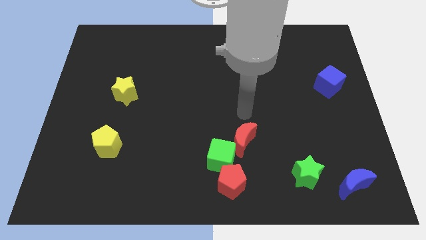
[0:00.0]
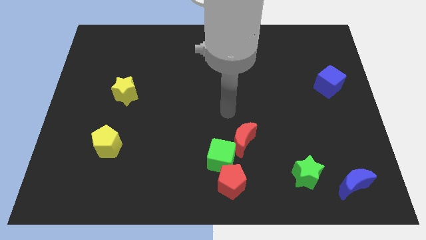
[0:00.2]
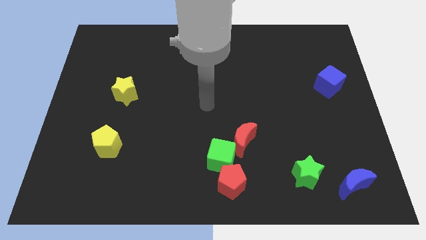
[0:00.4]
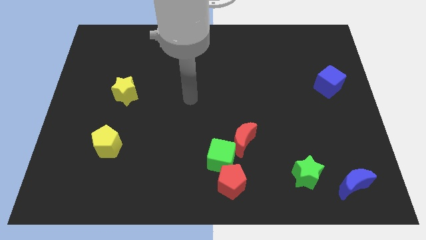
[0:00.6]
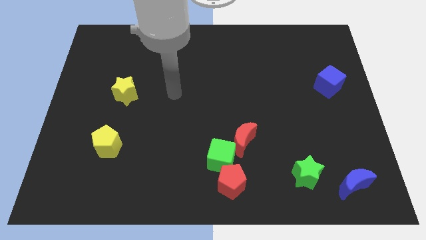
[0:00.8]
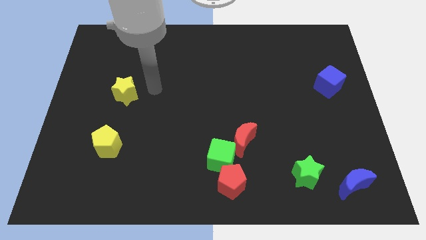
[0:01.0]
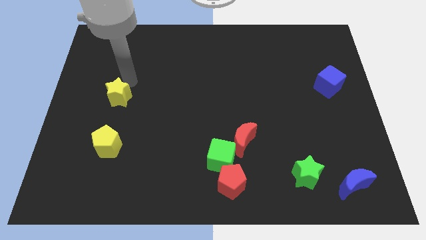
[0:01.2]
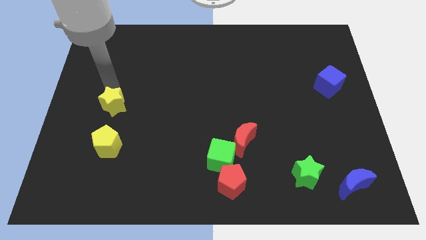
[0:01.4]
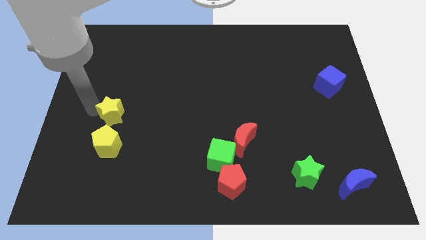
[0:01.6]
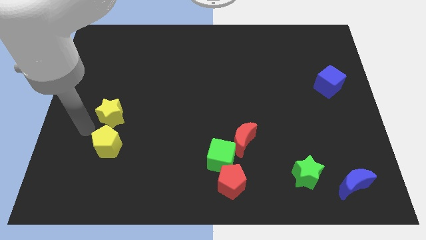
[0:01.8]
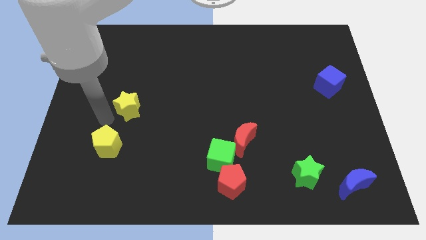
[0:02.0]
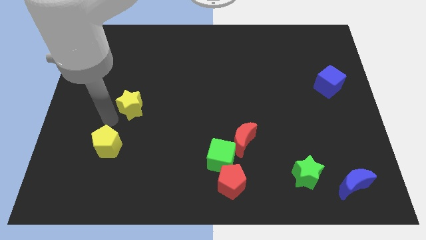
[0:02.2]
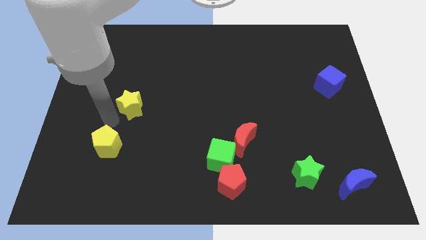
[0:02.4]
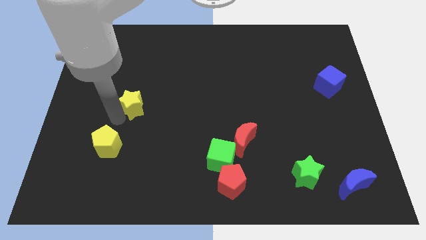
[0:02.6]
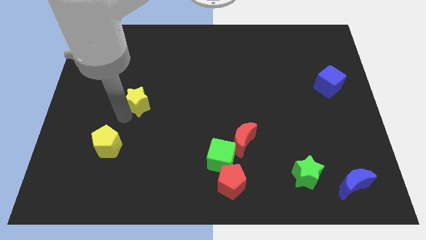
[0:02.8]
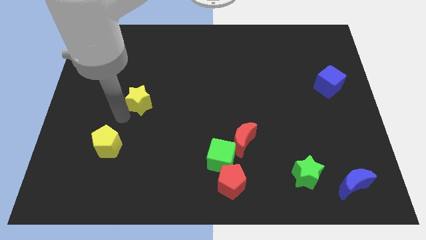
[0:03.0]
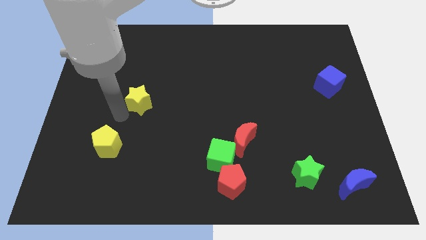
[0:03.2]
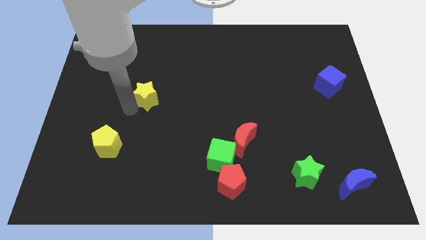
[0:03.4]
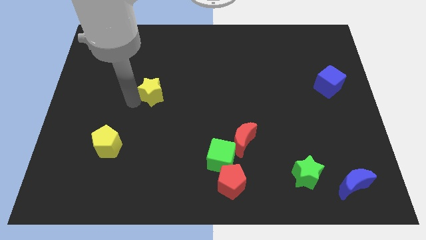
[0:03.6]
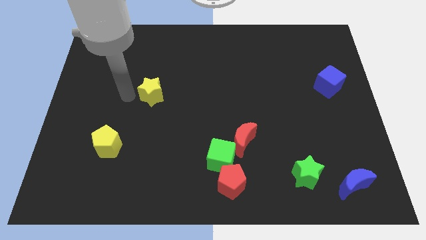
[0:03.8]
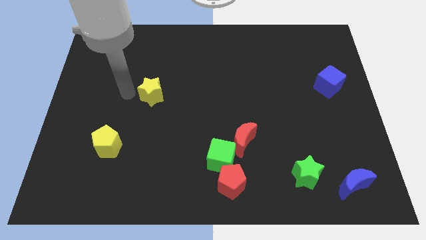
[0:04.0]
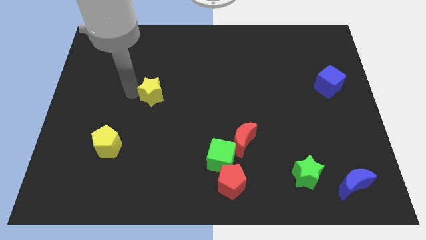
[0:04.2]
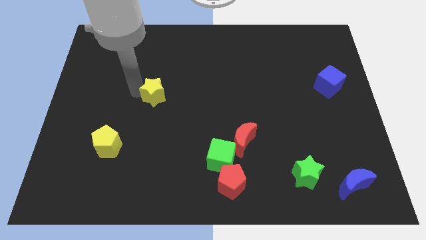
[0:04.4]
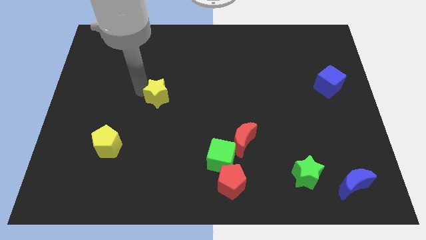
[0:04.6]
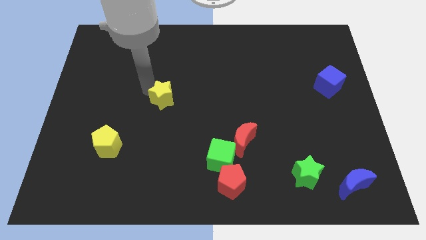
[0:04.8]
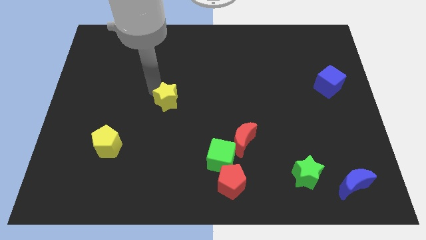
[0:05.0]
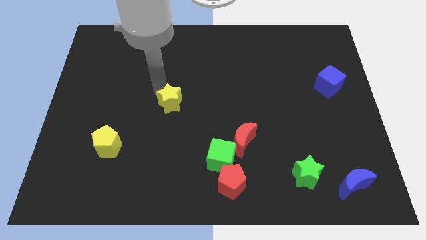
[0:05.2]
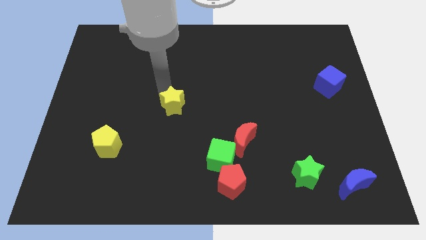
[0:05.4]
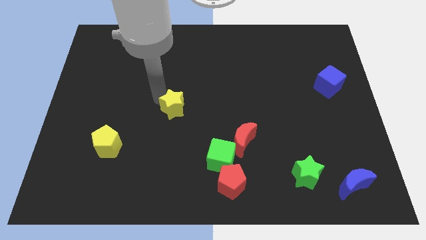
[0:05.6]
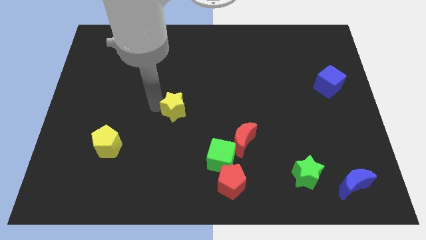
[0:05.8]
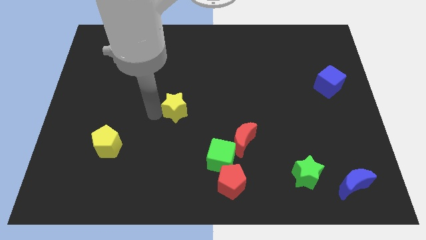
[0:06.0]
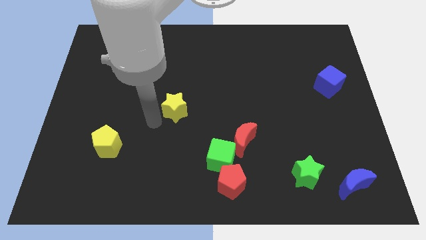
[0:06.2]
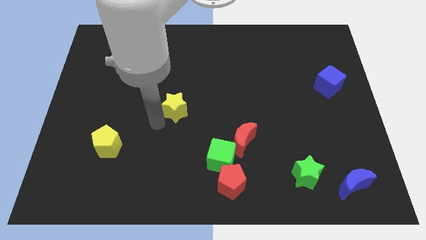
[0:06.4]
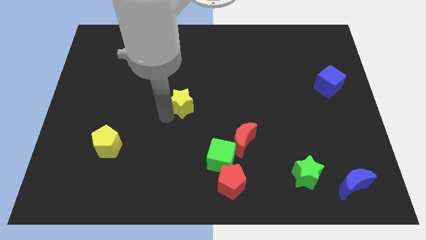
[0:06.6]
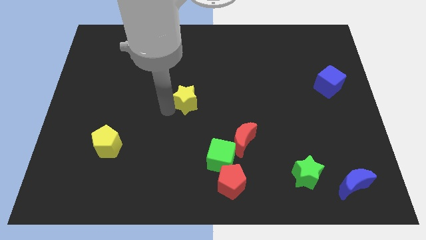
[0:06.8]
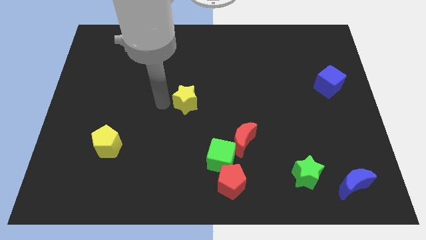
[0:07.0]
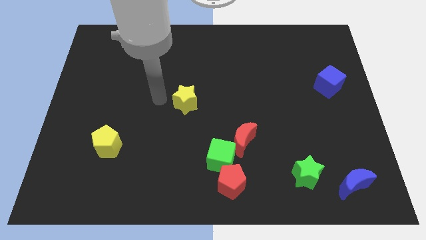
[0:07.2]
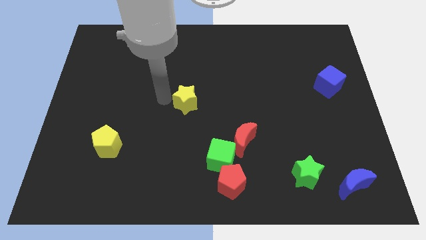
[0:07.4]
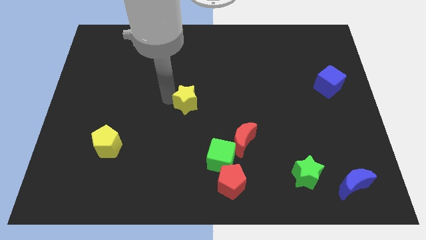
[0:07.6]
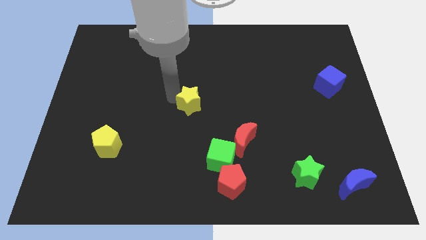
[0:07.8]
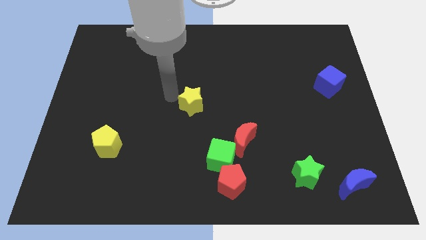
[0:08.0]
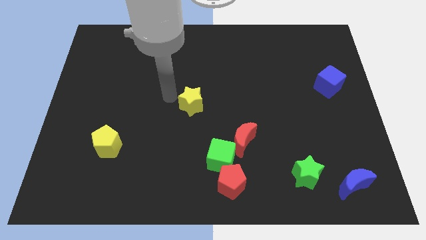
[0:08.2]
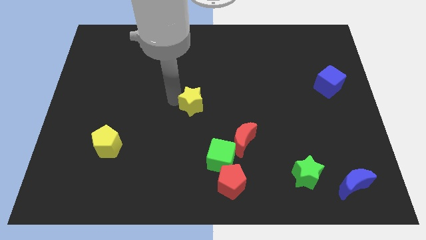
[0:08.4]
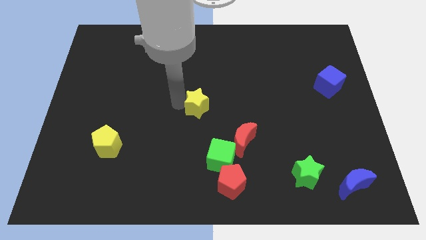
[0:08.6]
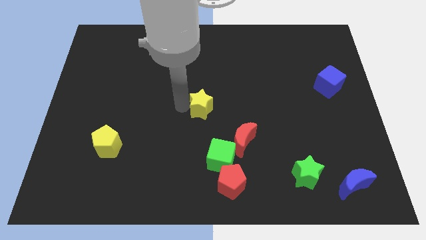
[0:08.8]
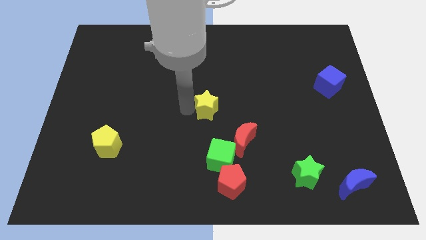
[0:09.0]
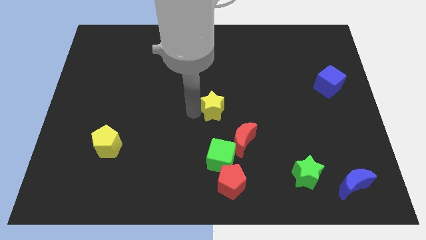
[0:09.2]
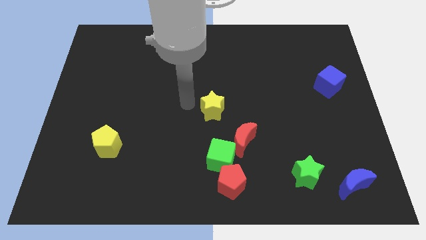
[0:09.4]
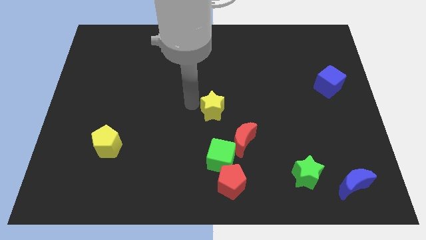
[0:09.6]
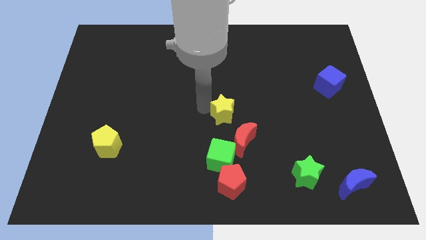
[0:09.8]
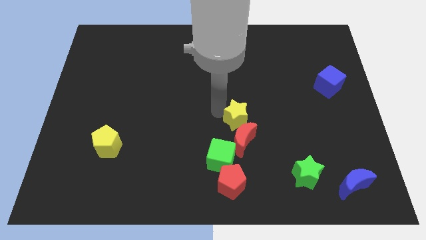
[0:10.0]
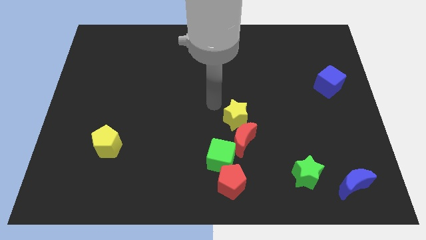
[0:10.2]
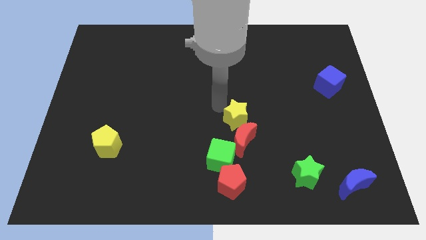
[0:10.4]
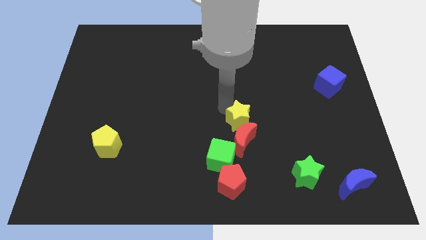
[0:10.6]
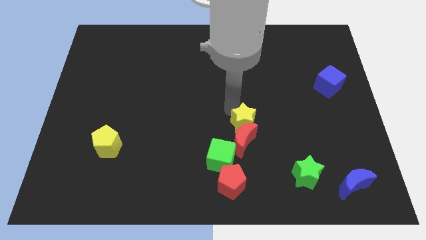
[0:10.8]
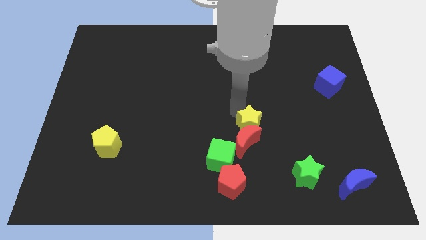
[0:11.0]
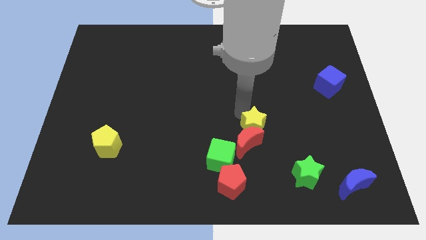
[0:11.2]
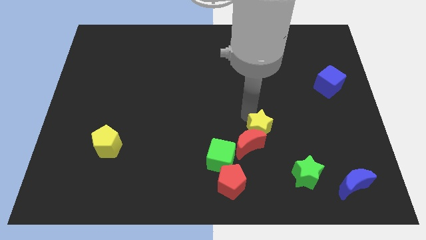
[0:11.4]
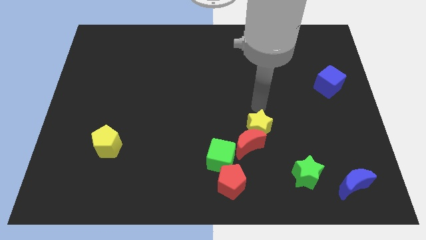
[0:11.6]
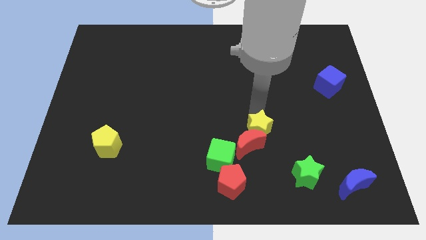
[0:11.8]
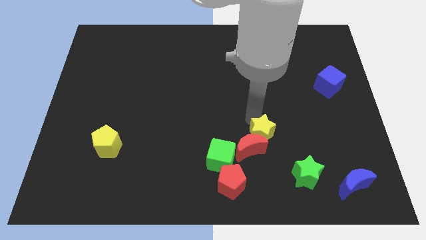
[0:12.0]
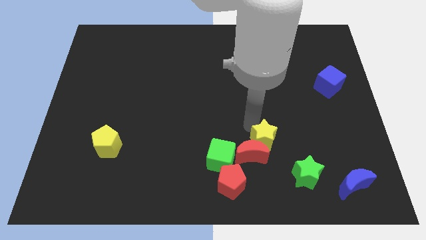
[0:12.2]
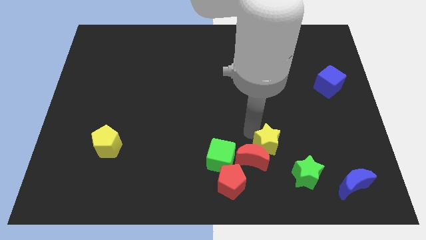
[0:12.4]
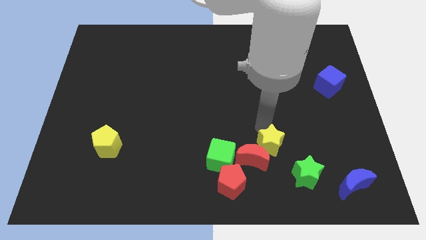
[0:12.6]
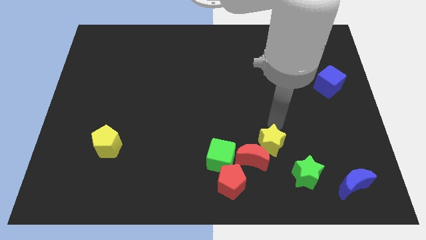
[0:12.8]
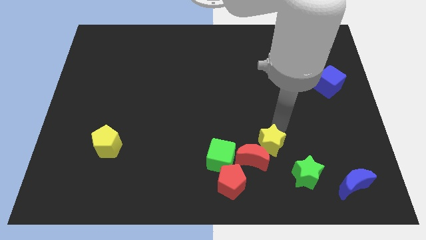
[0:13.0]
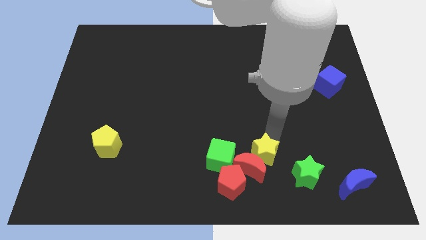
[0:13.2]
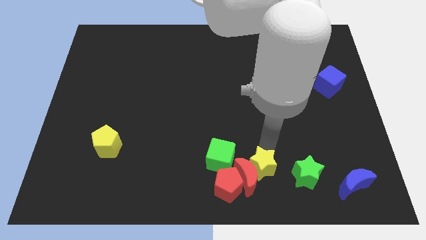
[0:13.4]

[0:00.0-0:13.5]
push the yellow star diagonally down and to the right of the green cube
